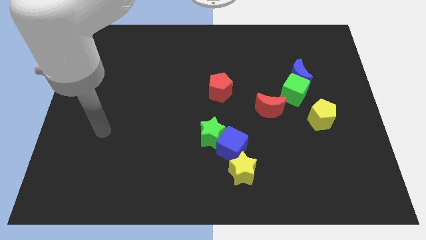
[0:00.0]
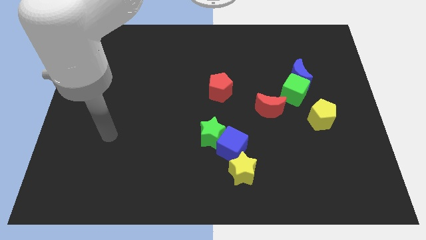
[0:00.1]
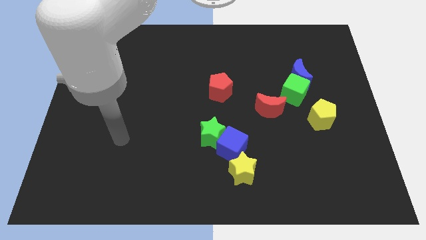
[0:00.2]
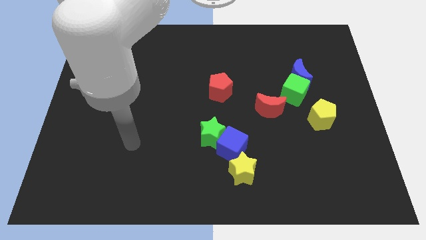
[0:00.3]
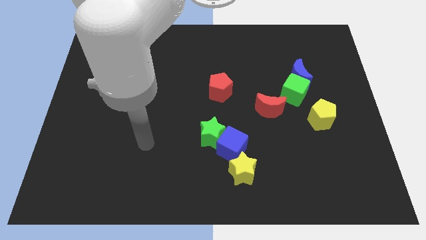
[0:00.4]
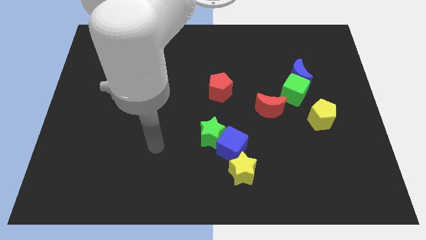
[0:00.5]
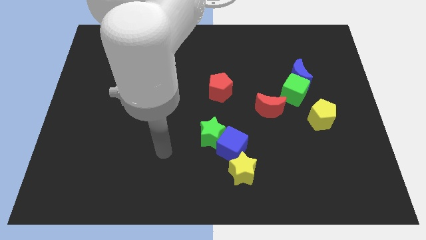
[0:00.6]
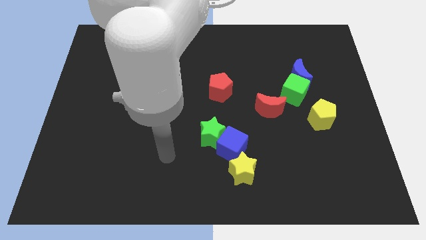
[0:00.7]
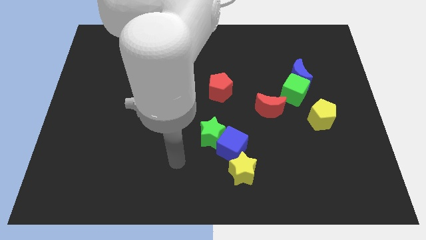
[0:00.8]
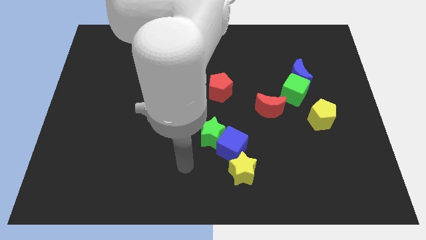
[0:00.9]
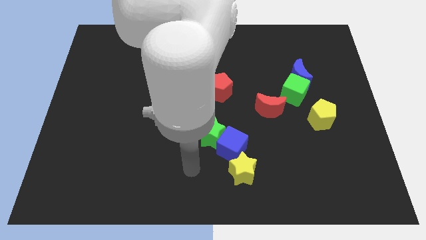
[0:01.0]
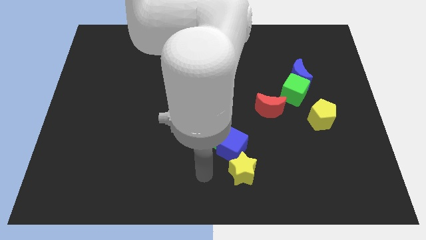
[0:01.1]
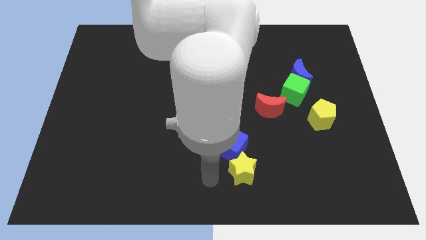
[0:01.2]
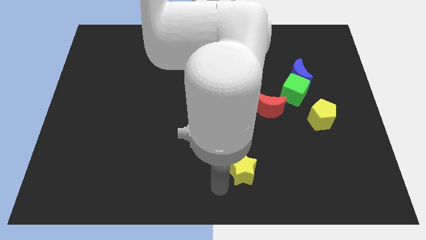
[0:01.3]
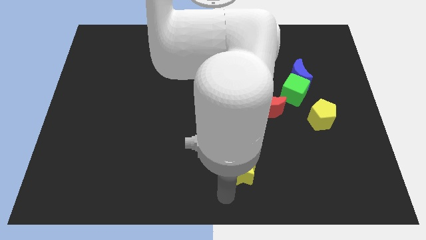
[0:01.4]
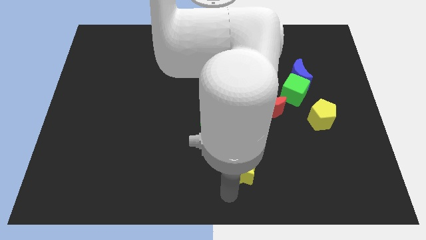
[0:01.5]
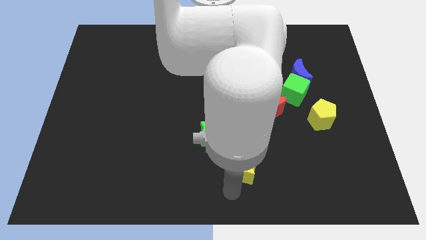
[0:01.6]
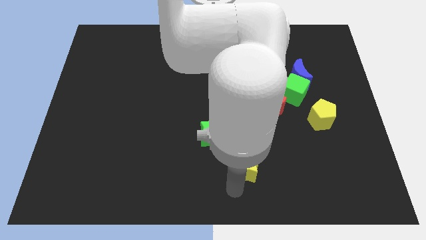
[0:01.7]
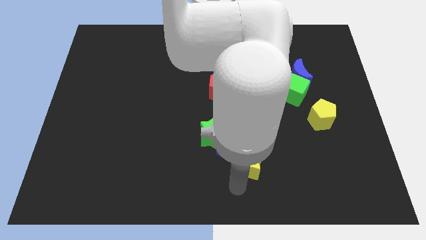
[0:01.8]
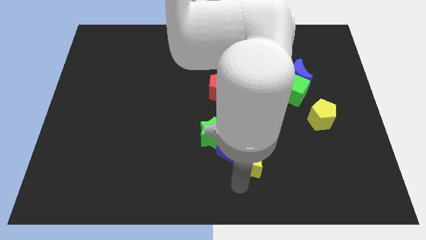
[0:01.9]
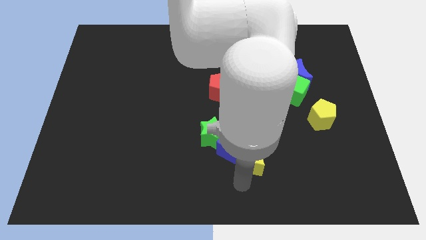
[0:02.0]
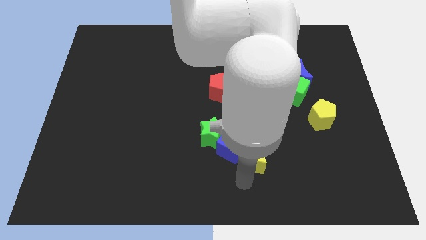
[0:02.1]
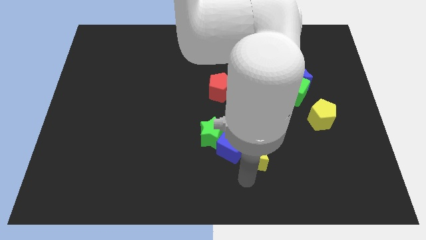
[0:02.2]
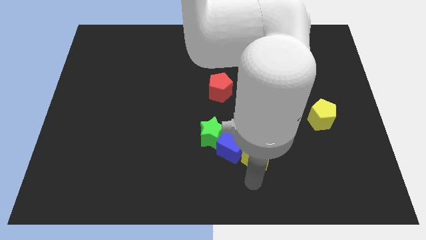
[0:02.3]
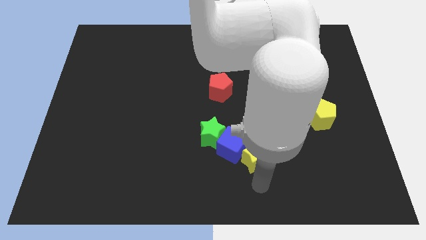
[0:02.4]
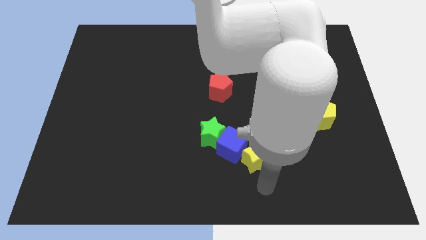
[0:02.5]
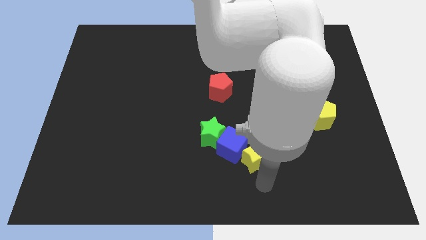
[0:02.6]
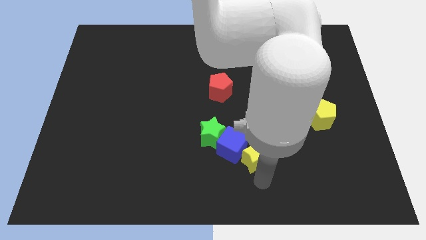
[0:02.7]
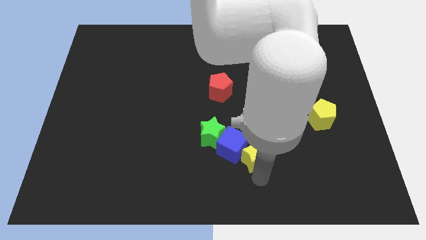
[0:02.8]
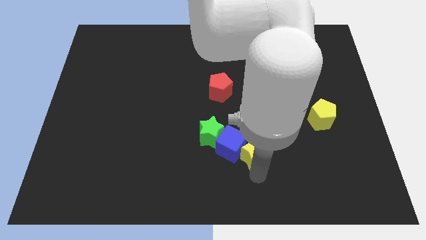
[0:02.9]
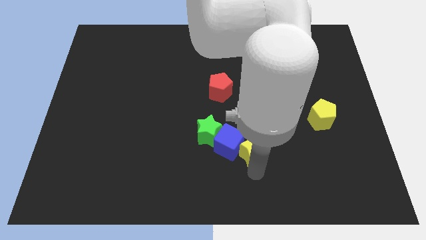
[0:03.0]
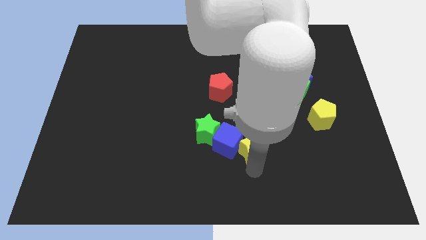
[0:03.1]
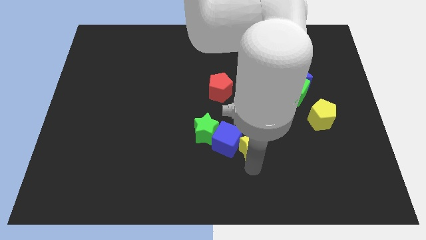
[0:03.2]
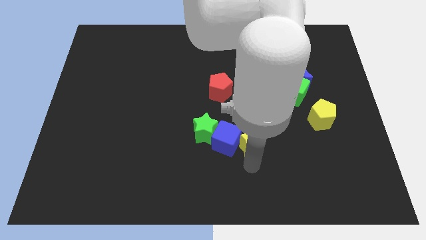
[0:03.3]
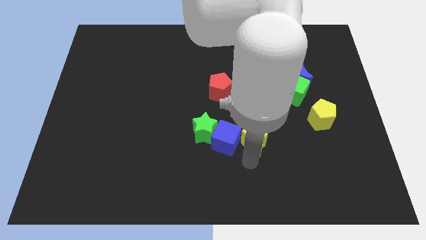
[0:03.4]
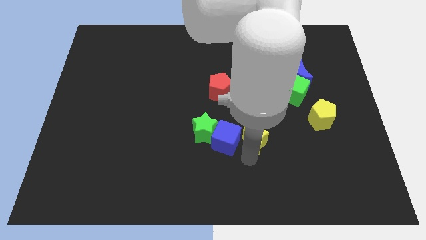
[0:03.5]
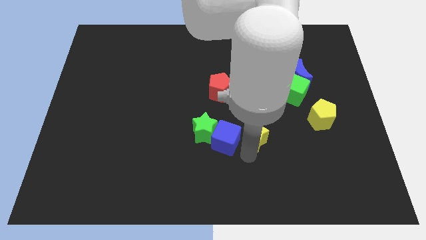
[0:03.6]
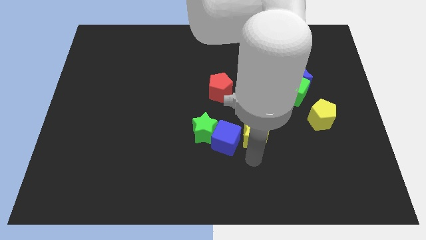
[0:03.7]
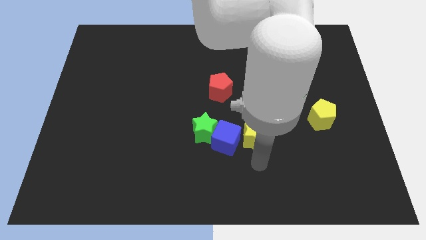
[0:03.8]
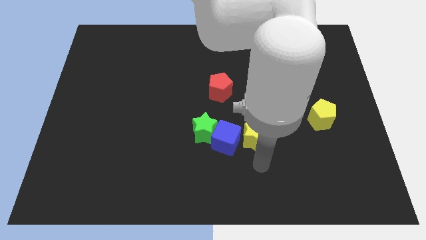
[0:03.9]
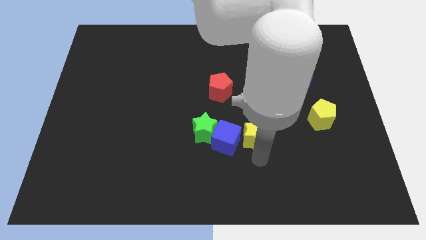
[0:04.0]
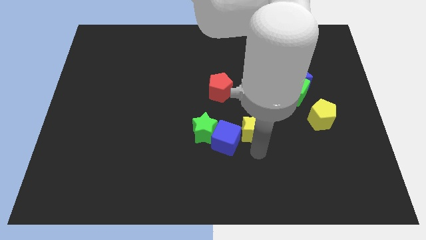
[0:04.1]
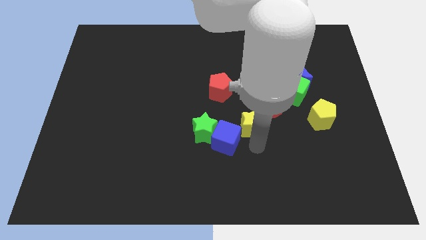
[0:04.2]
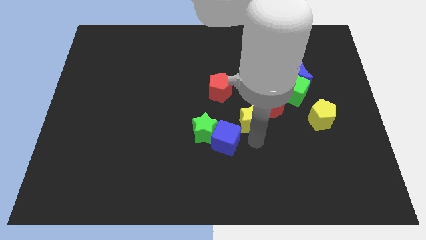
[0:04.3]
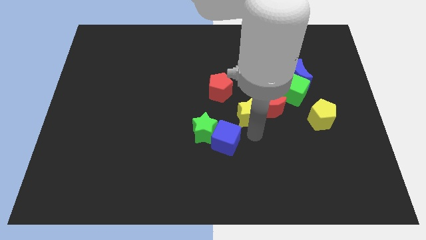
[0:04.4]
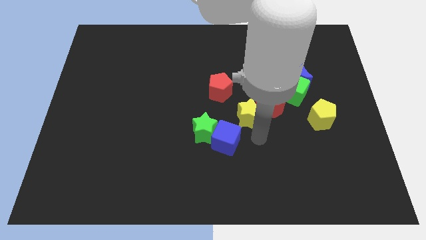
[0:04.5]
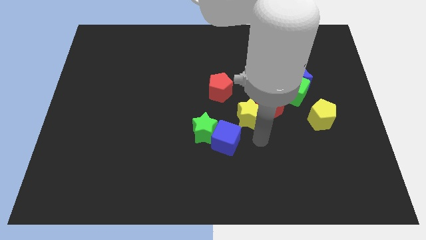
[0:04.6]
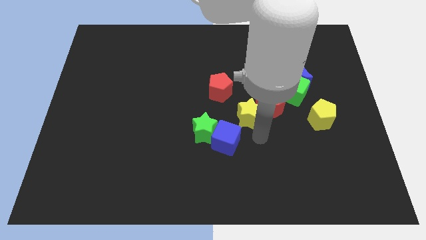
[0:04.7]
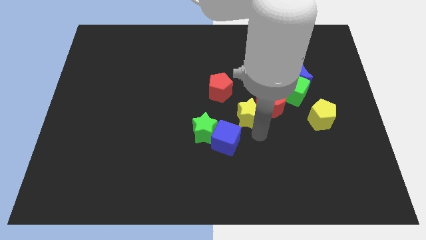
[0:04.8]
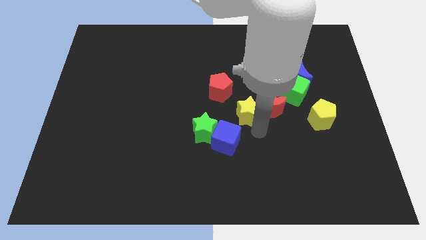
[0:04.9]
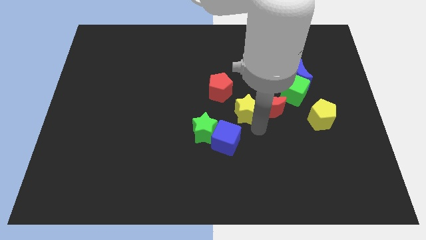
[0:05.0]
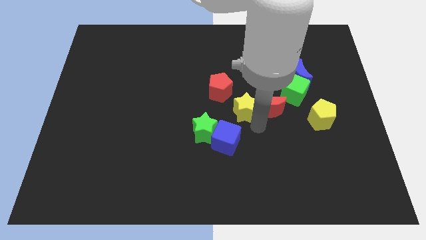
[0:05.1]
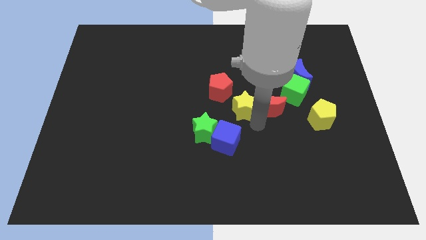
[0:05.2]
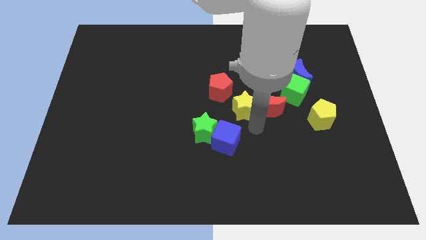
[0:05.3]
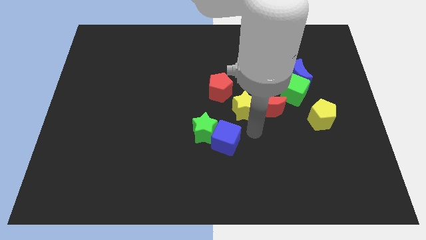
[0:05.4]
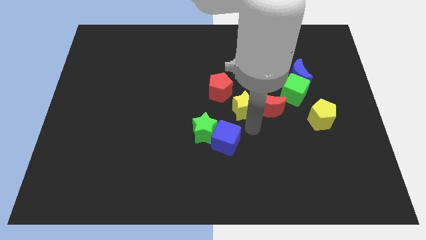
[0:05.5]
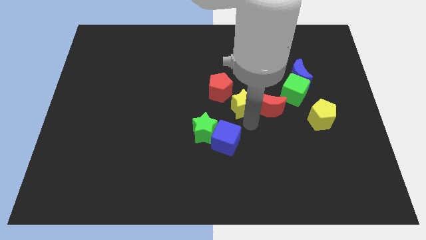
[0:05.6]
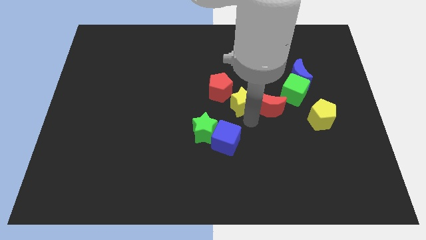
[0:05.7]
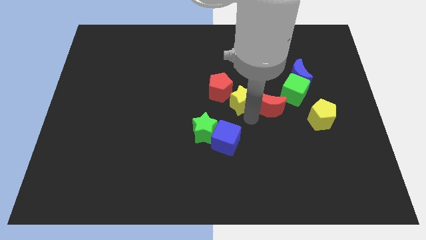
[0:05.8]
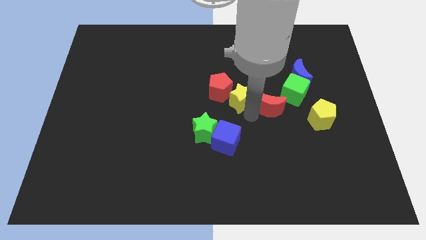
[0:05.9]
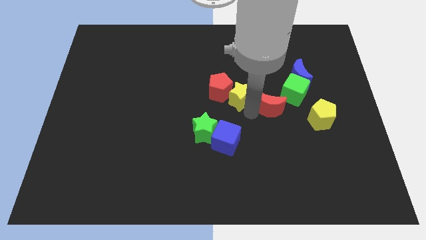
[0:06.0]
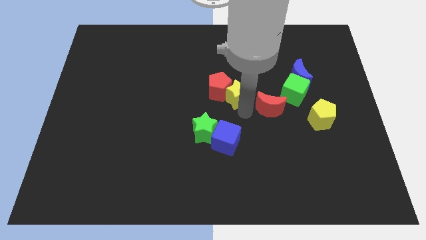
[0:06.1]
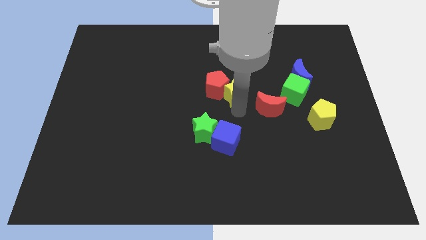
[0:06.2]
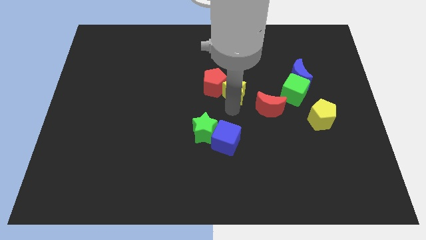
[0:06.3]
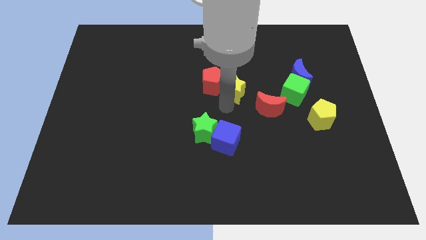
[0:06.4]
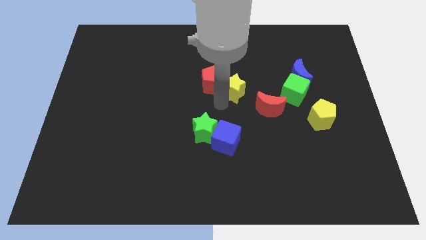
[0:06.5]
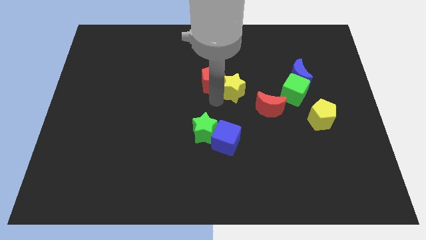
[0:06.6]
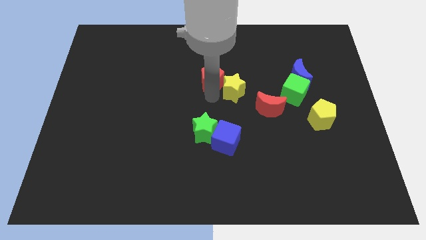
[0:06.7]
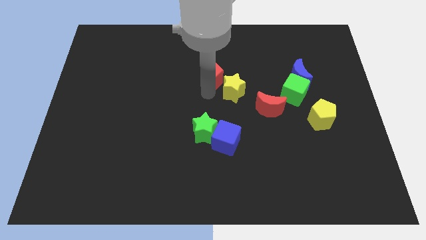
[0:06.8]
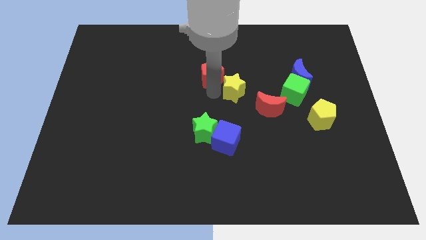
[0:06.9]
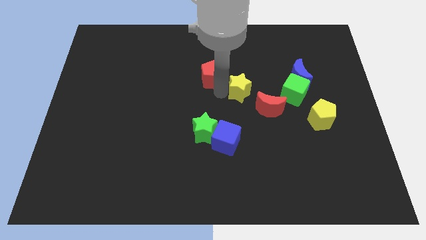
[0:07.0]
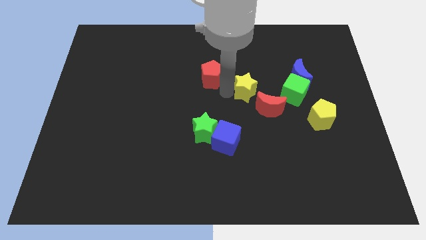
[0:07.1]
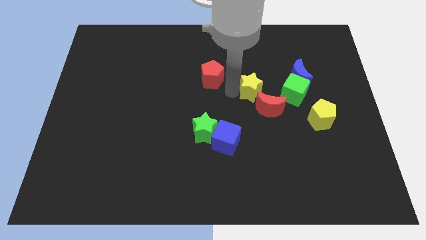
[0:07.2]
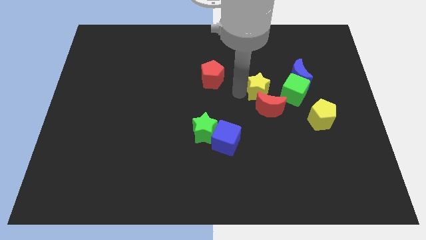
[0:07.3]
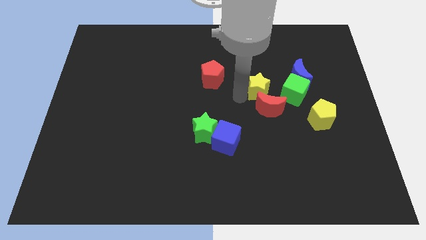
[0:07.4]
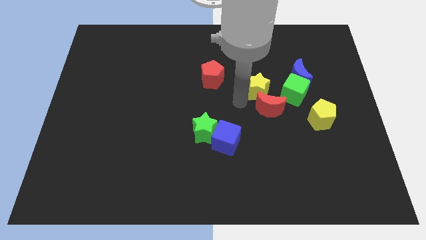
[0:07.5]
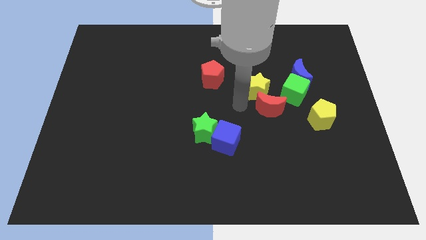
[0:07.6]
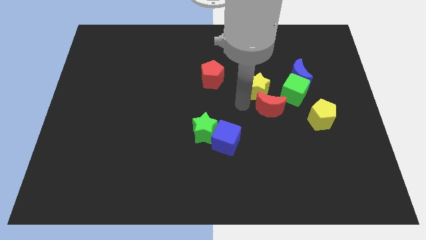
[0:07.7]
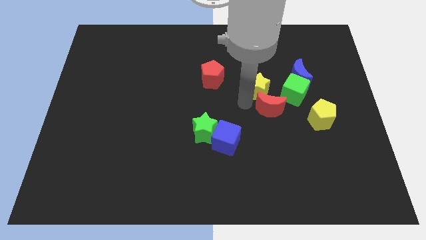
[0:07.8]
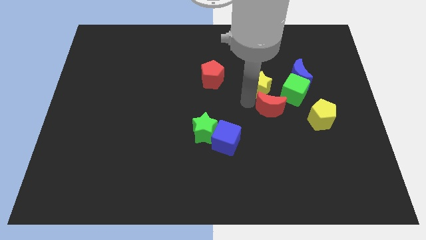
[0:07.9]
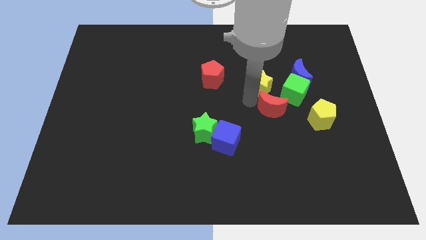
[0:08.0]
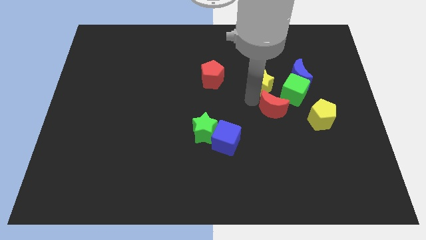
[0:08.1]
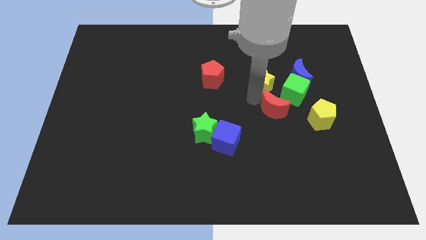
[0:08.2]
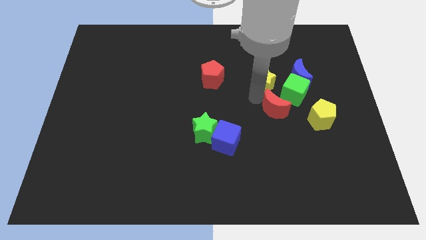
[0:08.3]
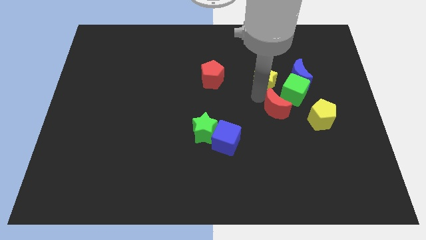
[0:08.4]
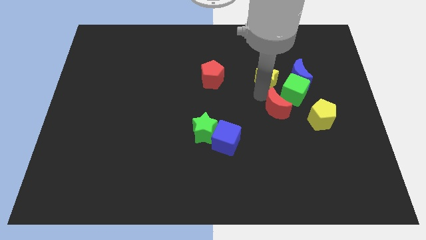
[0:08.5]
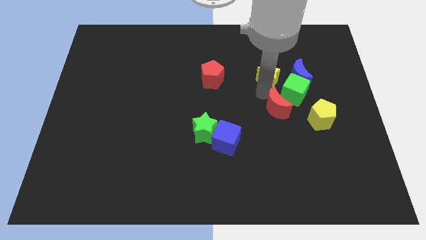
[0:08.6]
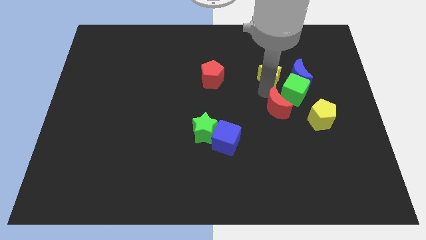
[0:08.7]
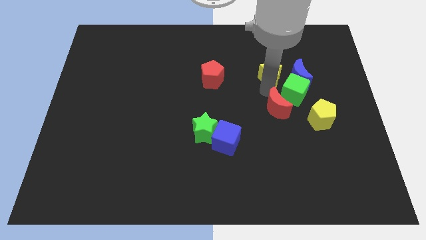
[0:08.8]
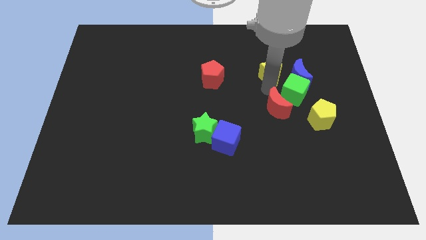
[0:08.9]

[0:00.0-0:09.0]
slide the yellow star above the green cube
